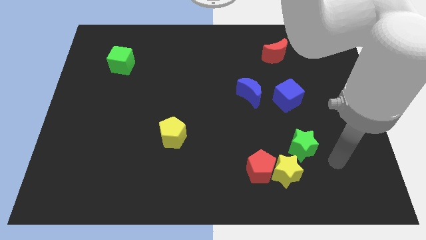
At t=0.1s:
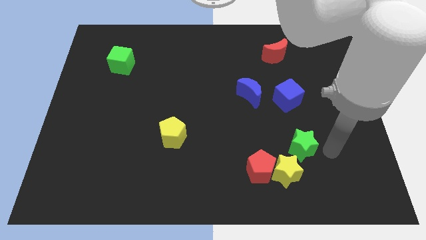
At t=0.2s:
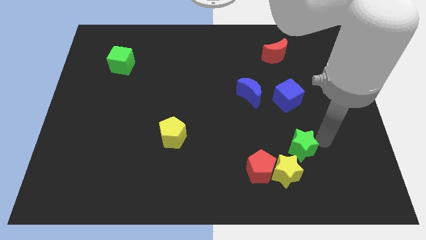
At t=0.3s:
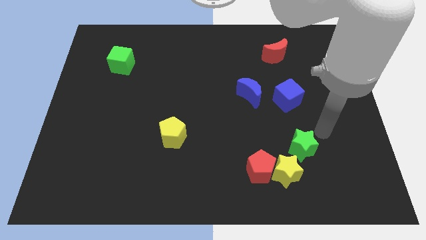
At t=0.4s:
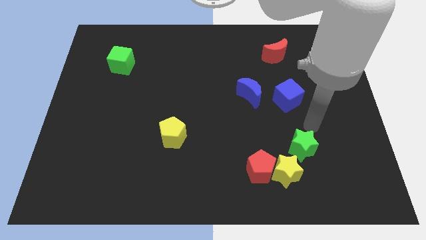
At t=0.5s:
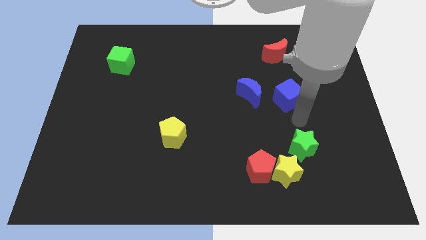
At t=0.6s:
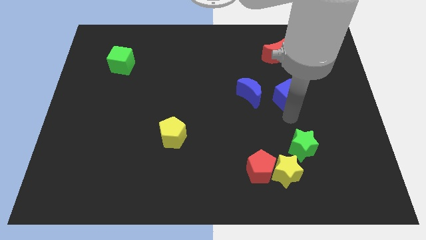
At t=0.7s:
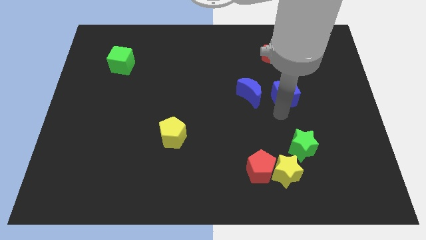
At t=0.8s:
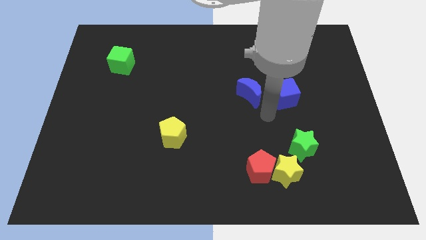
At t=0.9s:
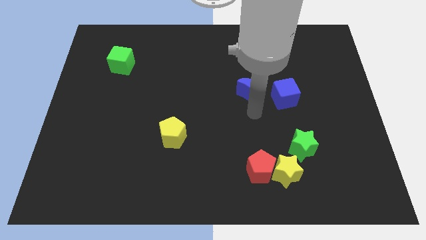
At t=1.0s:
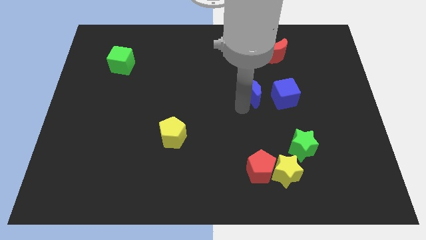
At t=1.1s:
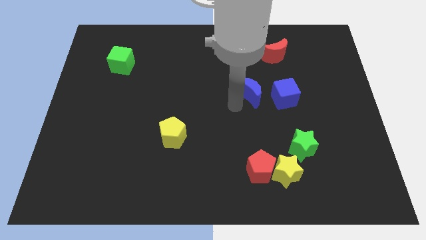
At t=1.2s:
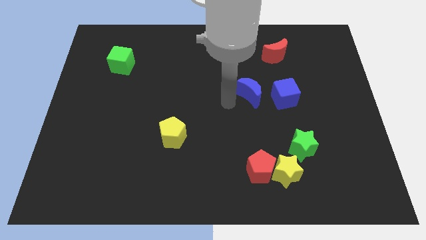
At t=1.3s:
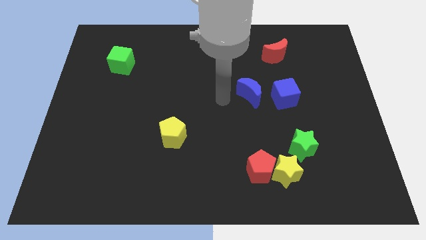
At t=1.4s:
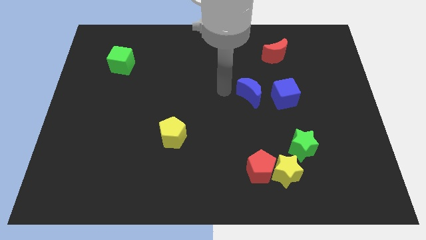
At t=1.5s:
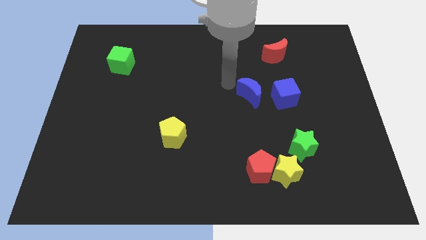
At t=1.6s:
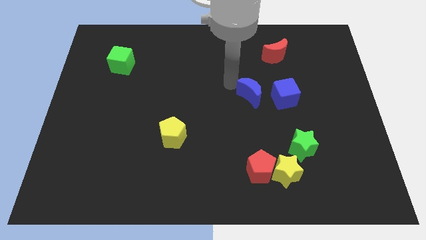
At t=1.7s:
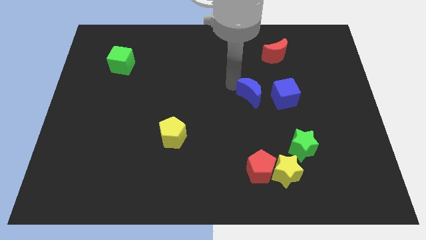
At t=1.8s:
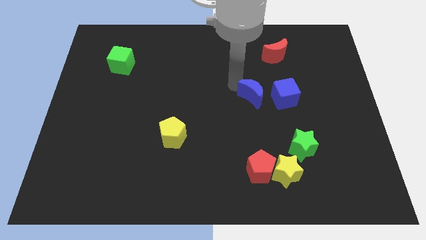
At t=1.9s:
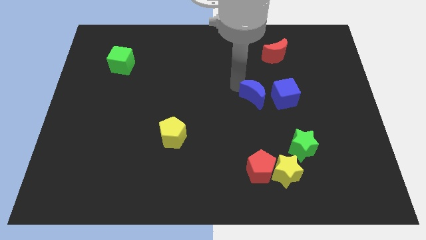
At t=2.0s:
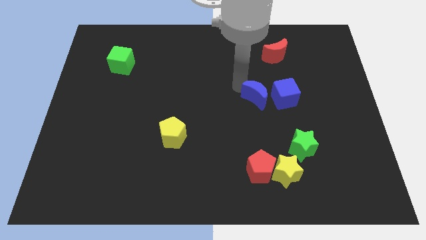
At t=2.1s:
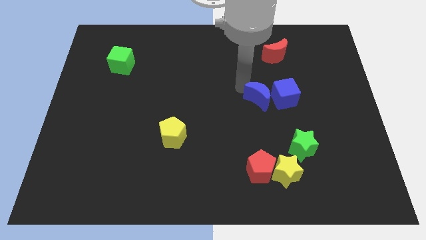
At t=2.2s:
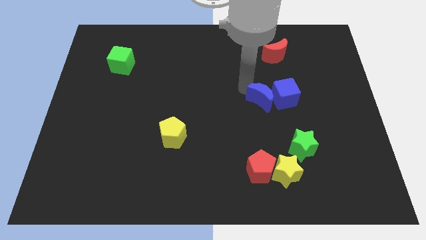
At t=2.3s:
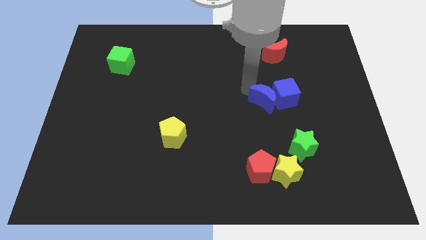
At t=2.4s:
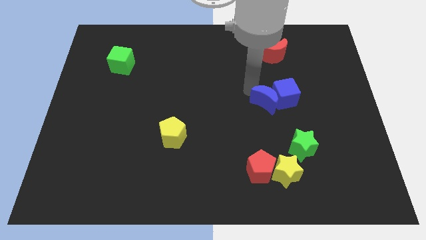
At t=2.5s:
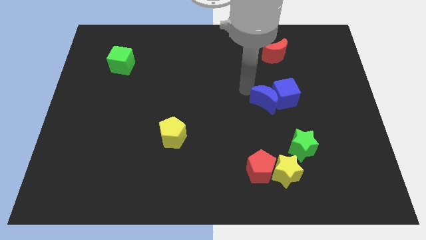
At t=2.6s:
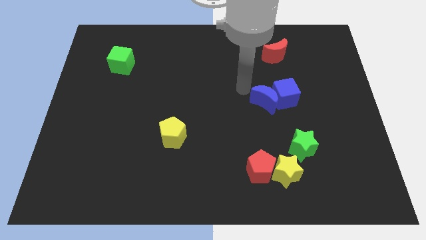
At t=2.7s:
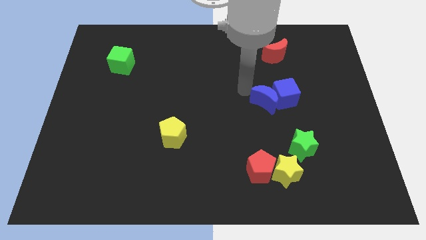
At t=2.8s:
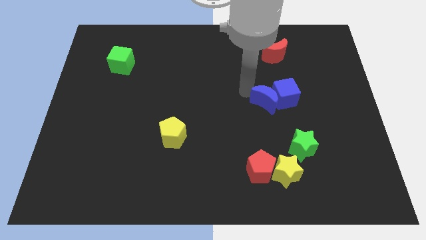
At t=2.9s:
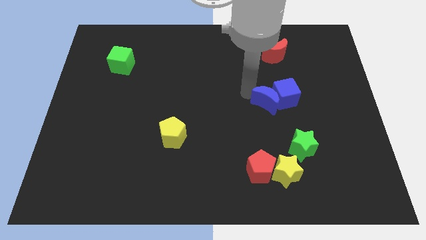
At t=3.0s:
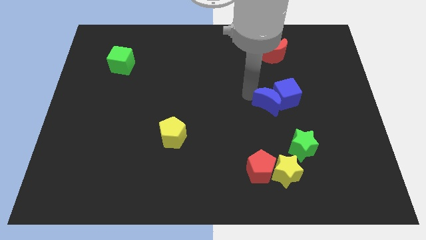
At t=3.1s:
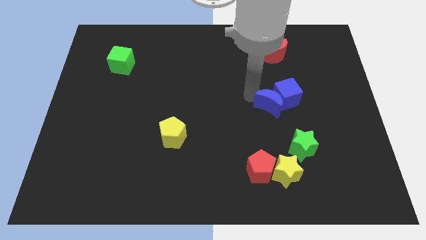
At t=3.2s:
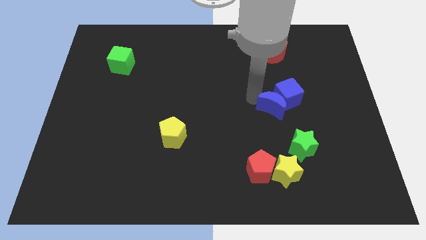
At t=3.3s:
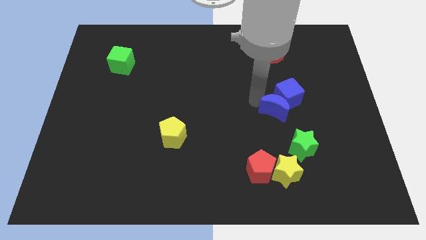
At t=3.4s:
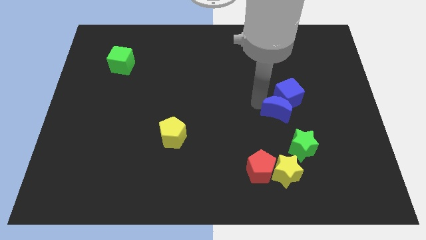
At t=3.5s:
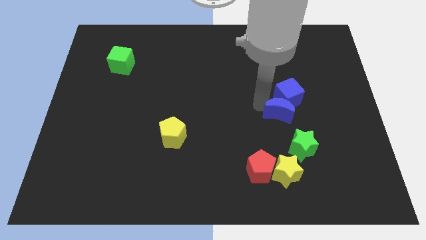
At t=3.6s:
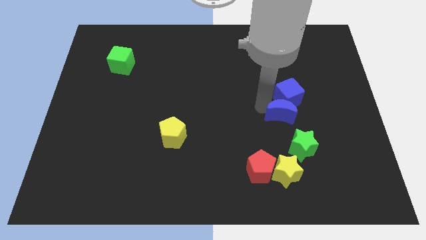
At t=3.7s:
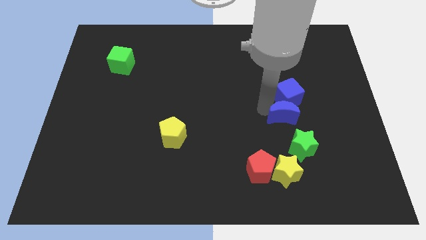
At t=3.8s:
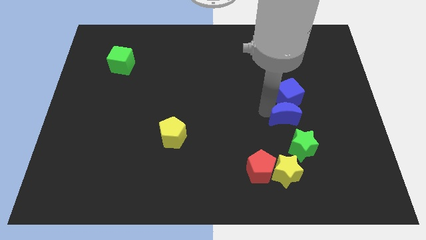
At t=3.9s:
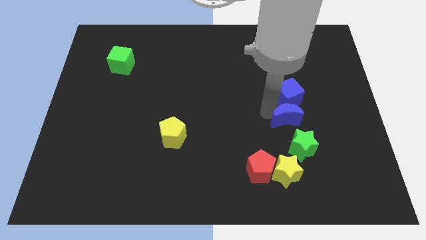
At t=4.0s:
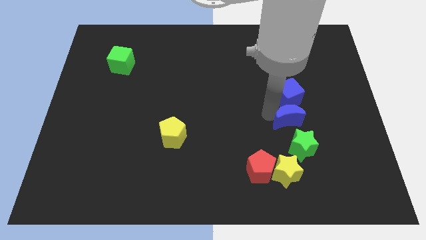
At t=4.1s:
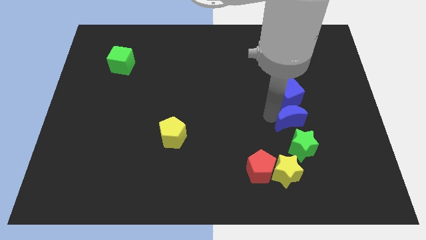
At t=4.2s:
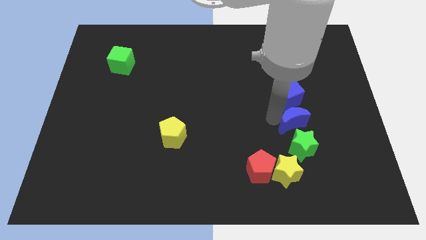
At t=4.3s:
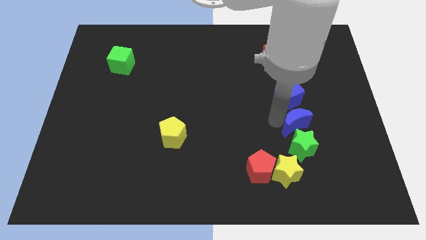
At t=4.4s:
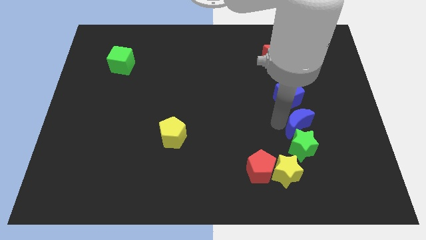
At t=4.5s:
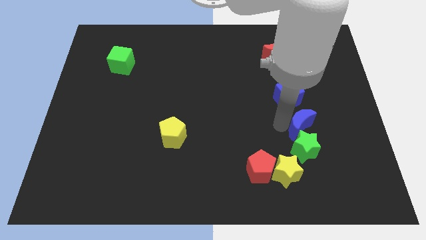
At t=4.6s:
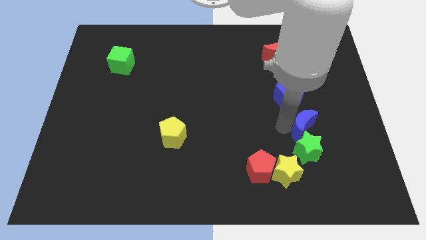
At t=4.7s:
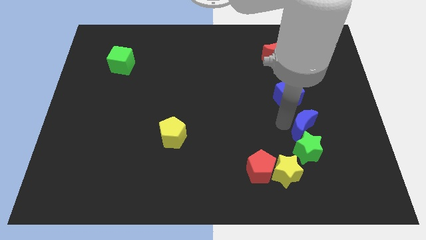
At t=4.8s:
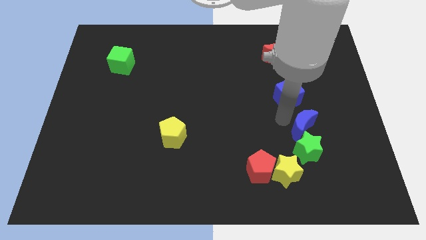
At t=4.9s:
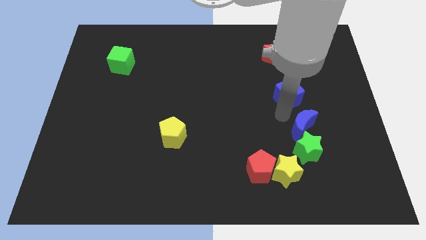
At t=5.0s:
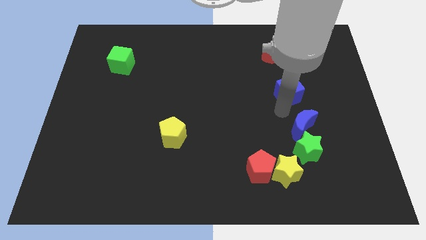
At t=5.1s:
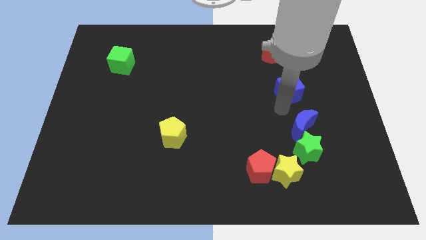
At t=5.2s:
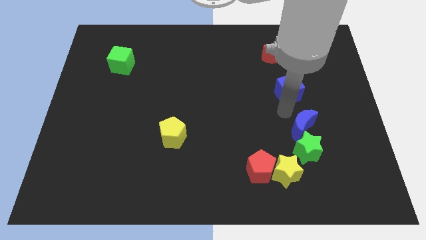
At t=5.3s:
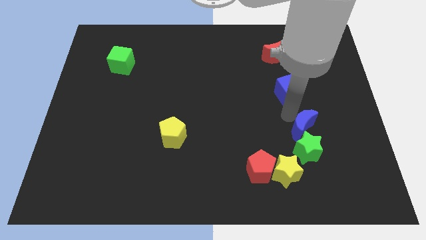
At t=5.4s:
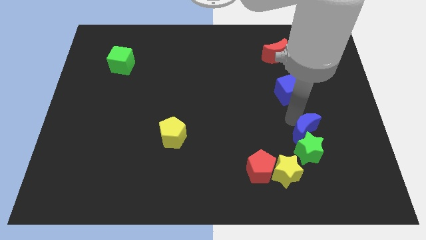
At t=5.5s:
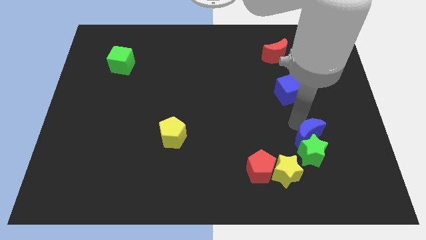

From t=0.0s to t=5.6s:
move the blue moon to the top right side of the yellow star

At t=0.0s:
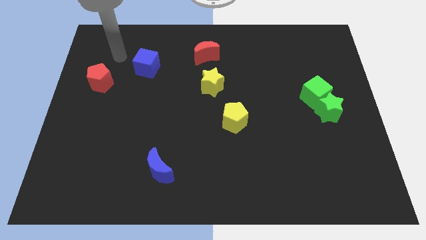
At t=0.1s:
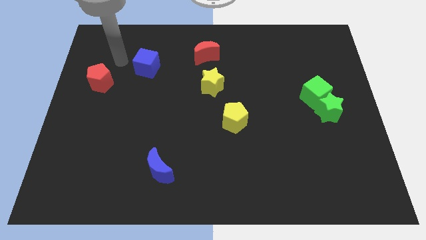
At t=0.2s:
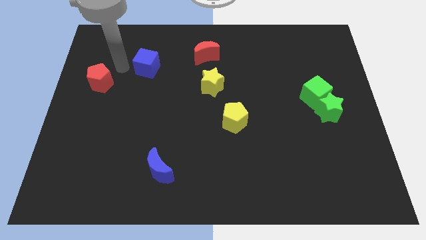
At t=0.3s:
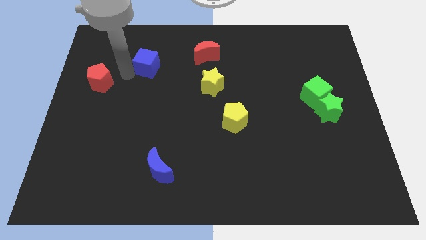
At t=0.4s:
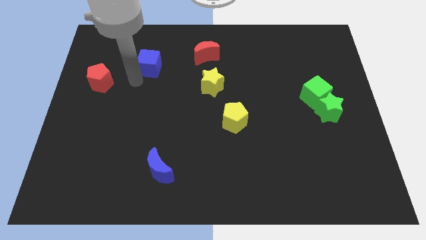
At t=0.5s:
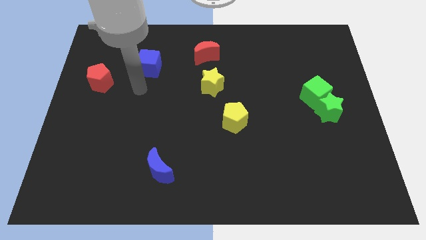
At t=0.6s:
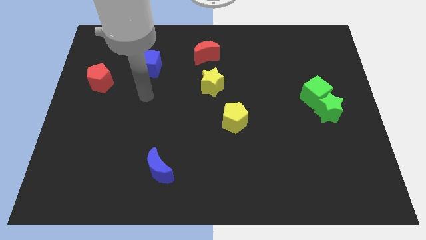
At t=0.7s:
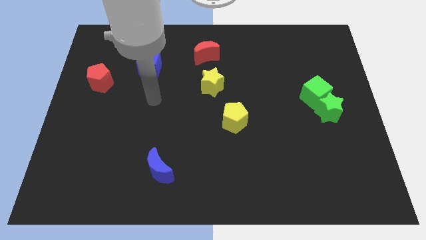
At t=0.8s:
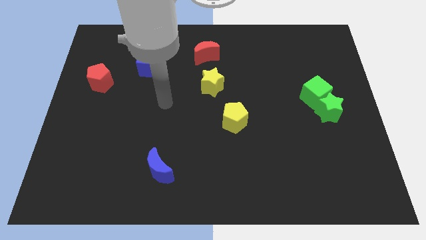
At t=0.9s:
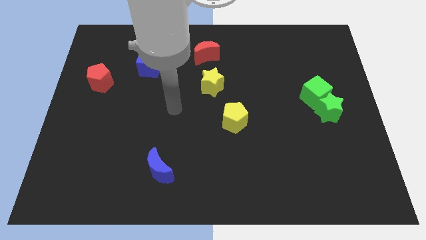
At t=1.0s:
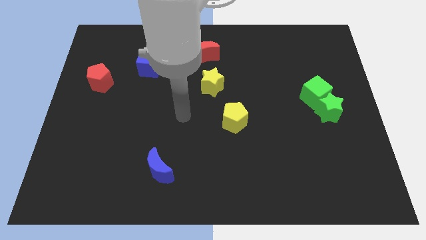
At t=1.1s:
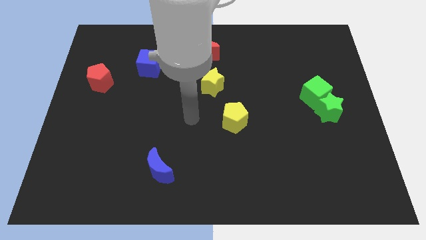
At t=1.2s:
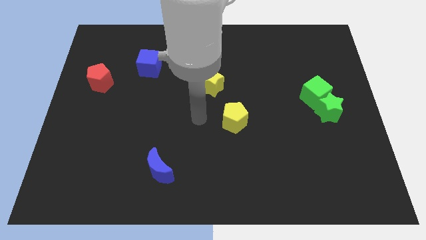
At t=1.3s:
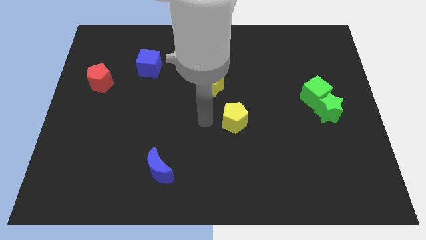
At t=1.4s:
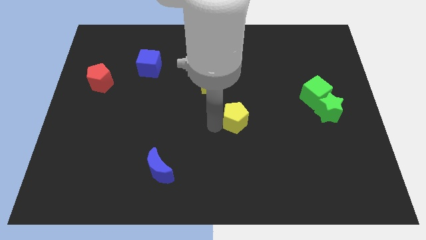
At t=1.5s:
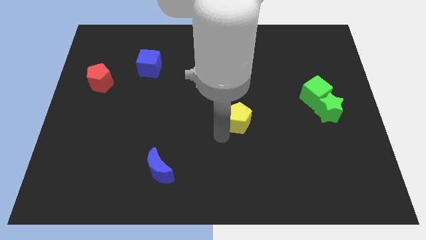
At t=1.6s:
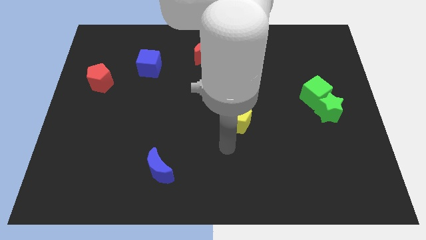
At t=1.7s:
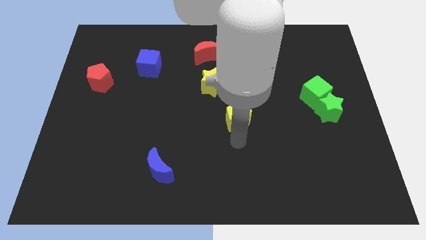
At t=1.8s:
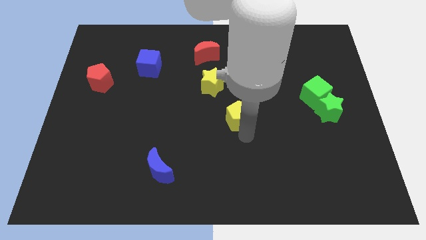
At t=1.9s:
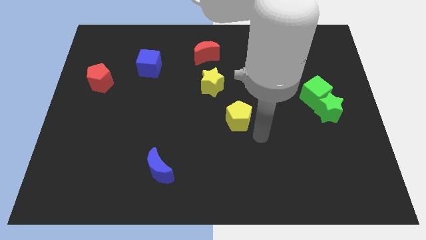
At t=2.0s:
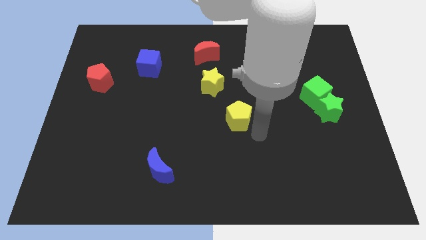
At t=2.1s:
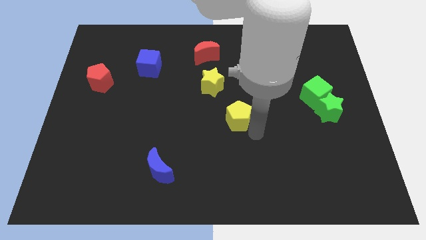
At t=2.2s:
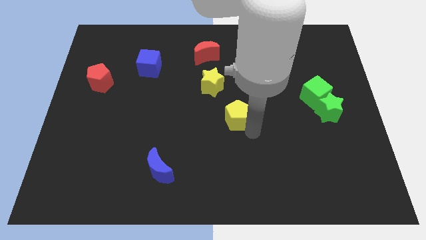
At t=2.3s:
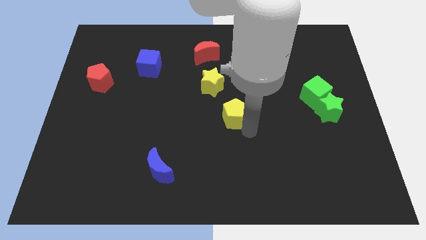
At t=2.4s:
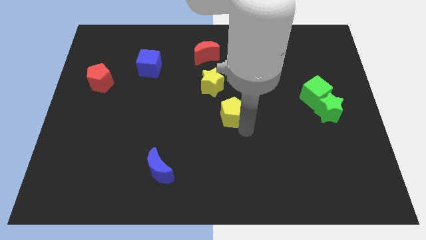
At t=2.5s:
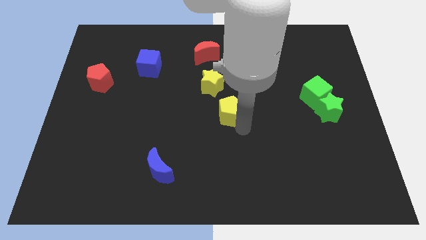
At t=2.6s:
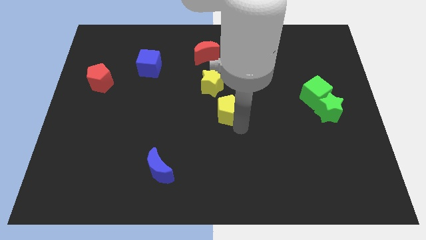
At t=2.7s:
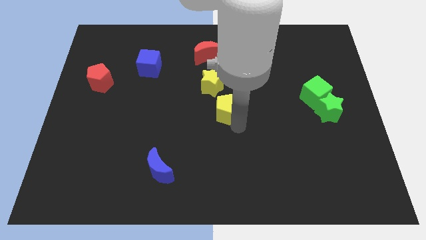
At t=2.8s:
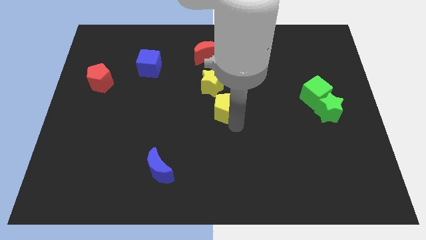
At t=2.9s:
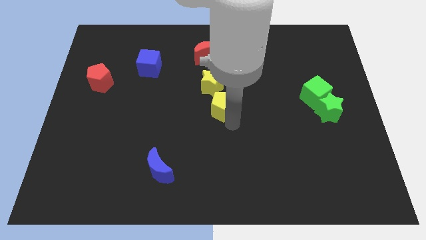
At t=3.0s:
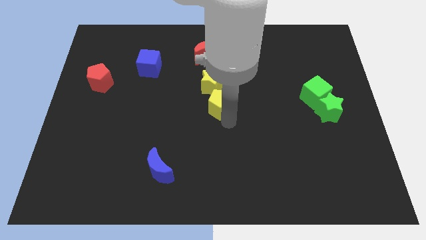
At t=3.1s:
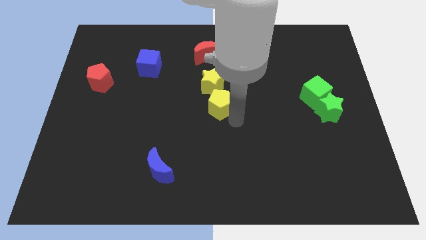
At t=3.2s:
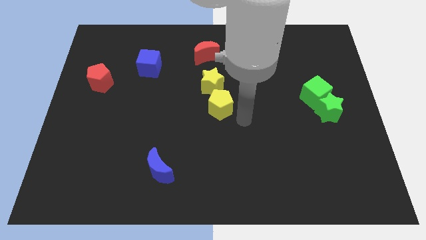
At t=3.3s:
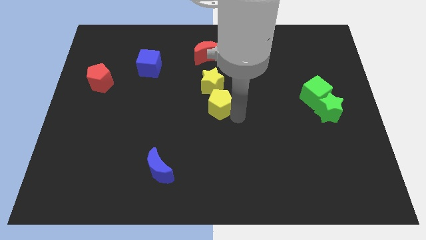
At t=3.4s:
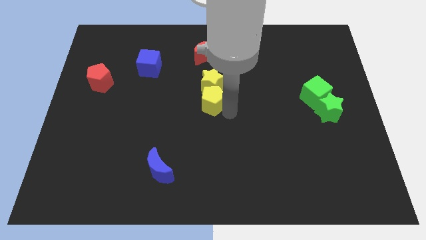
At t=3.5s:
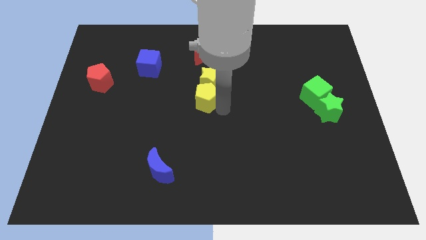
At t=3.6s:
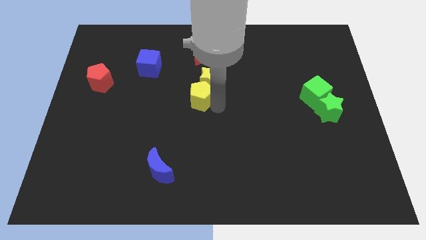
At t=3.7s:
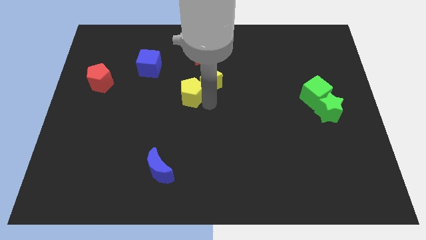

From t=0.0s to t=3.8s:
move the yellow pentagon to the left of the yellow star
